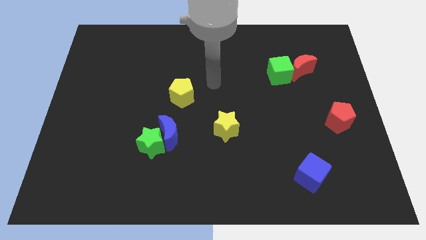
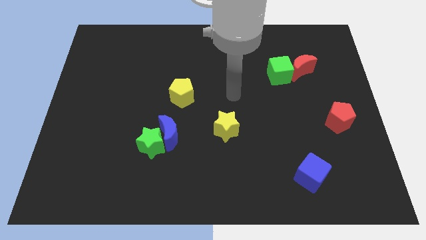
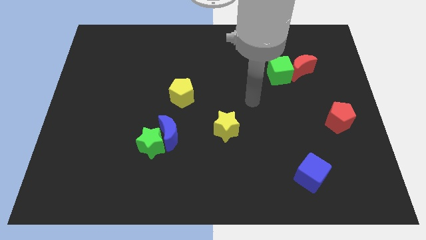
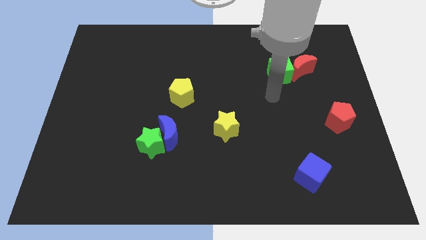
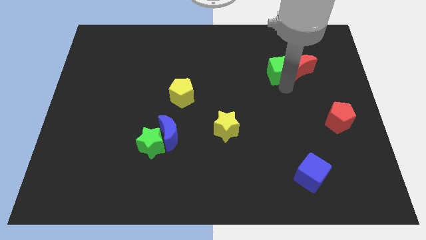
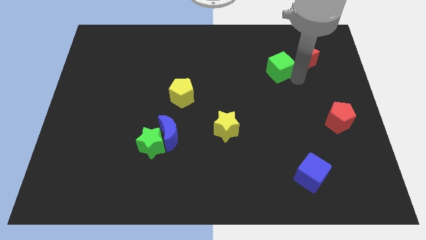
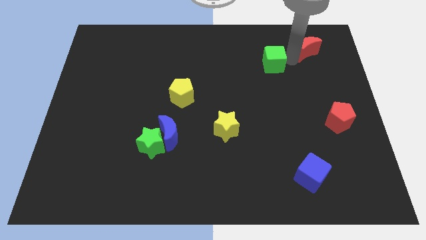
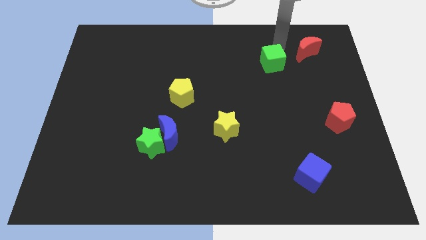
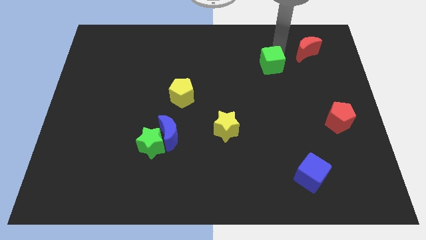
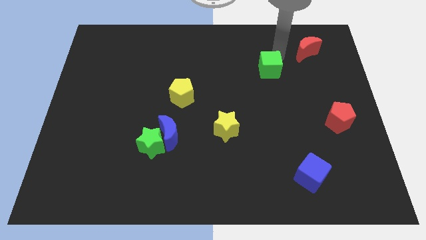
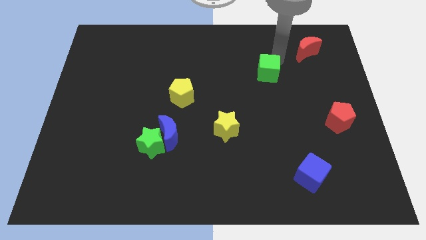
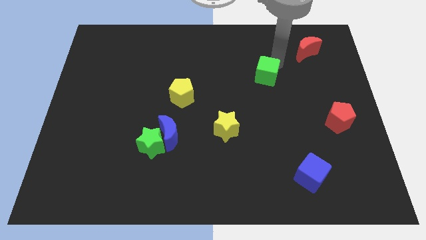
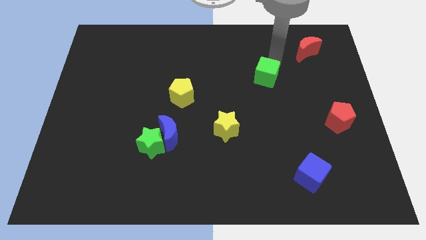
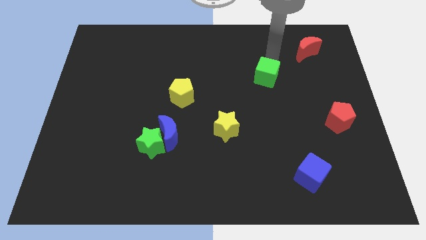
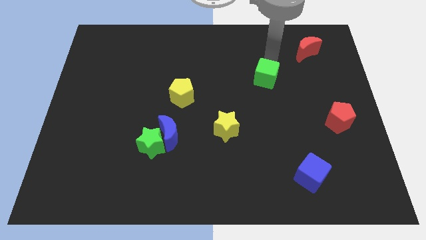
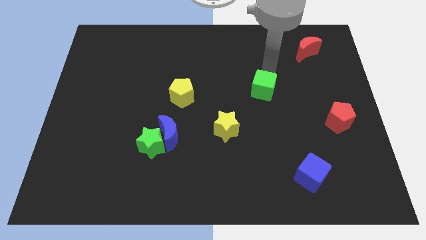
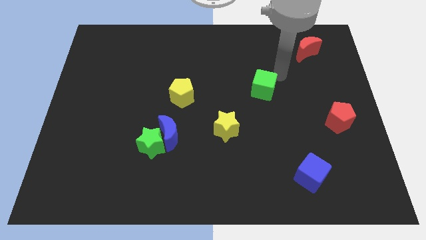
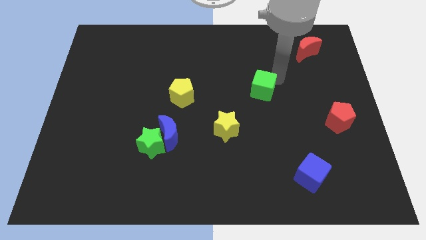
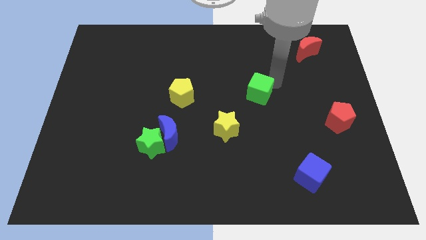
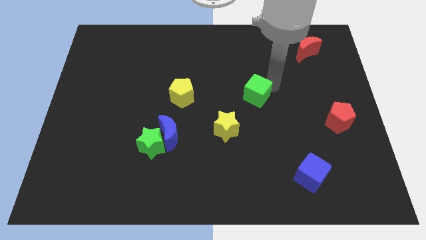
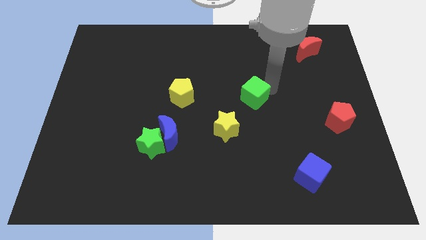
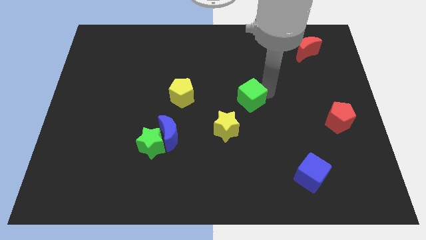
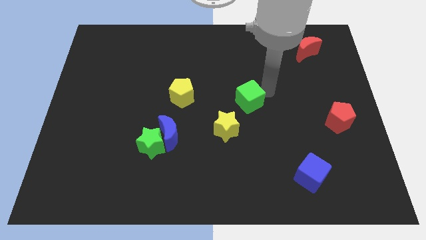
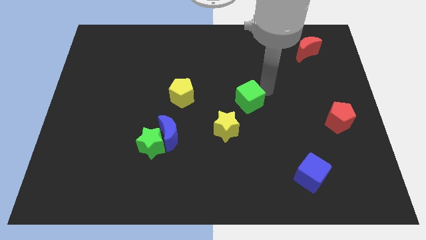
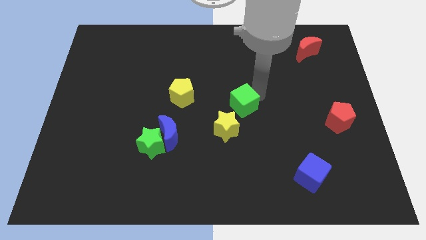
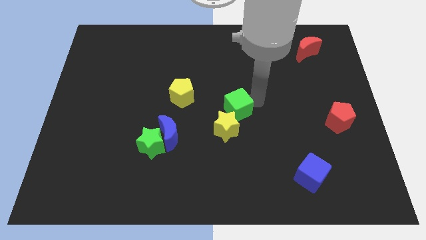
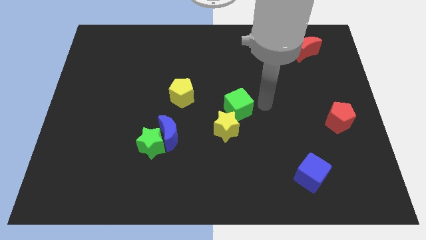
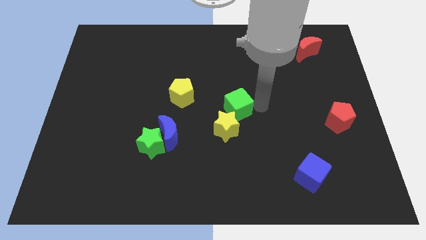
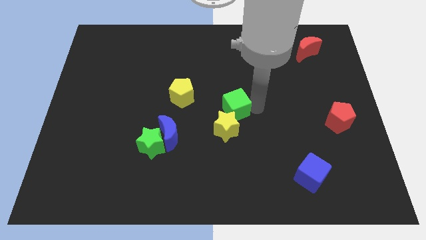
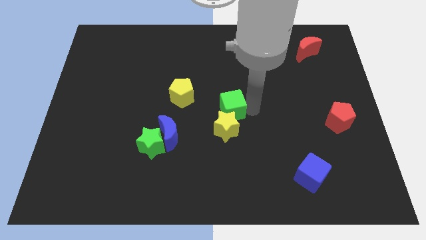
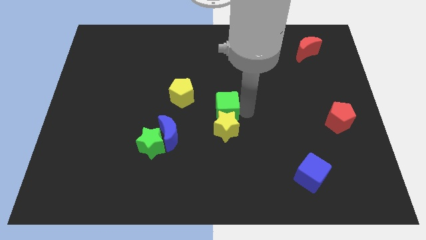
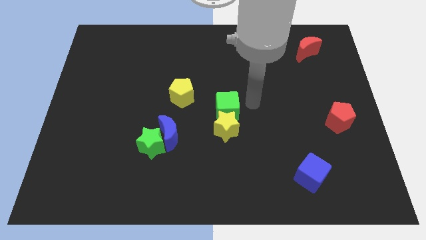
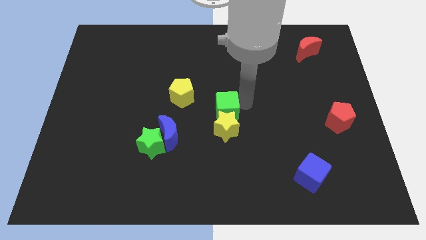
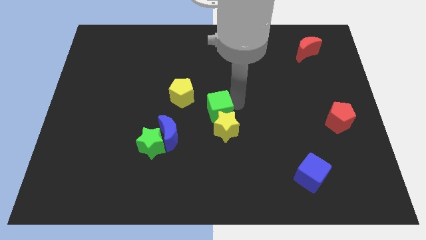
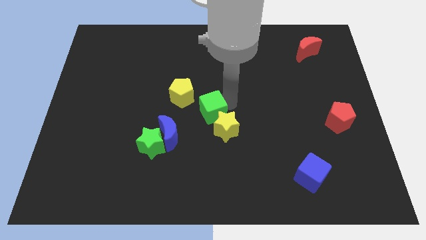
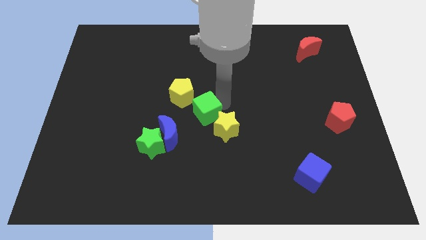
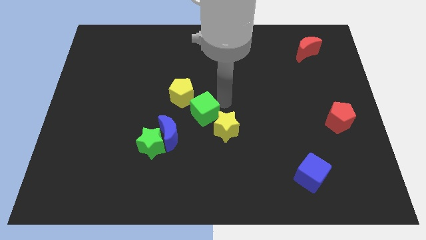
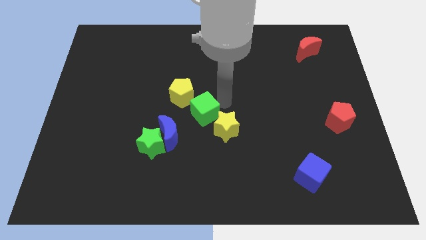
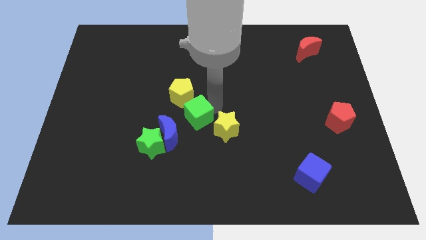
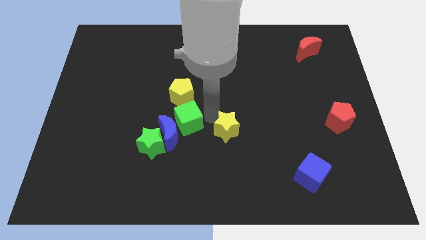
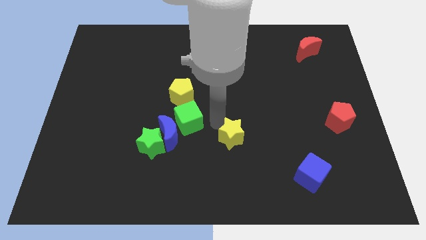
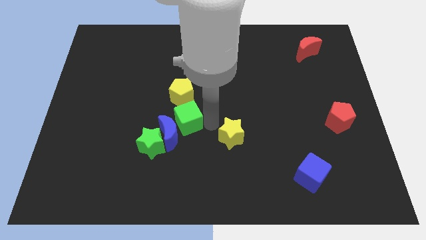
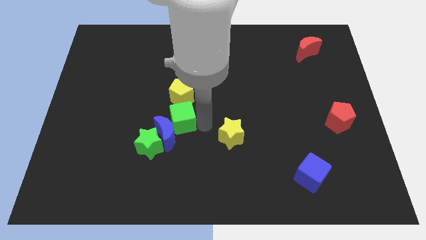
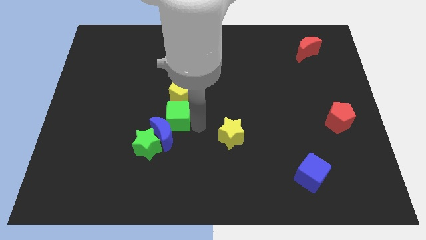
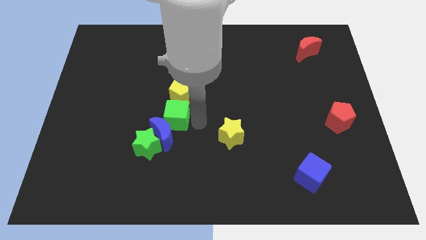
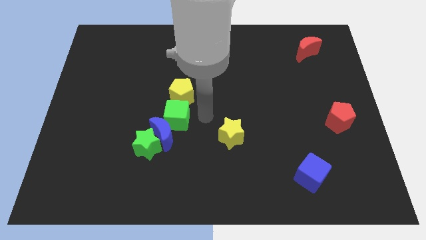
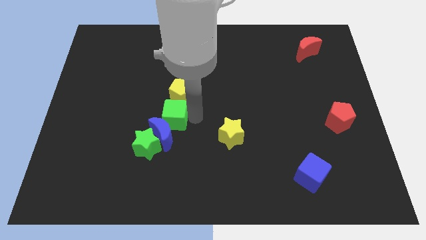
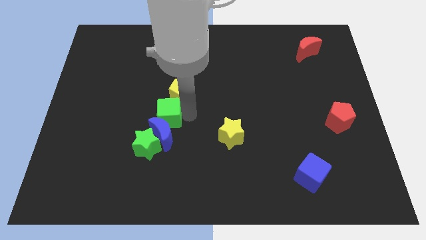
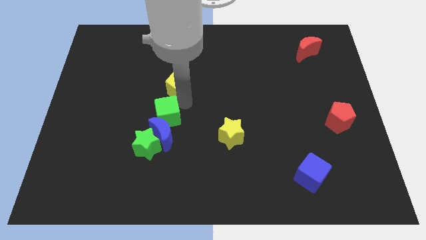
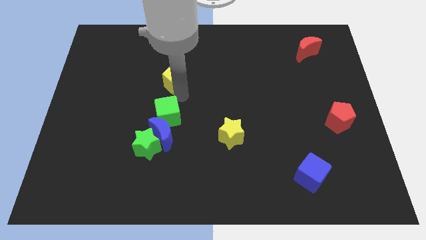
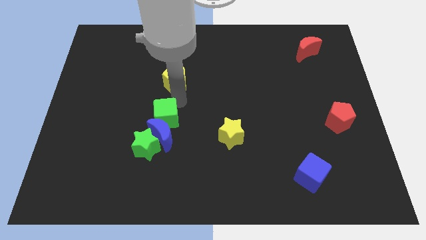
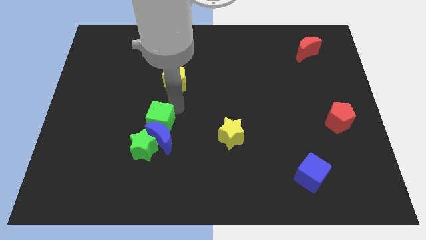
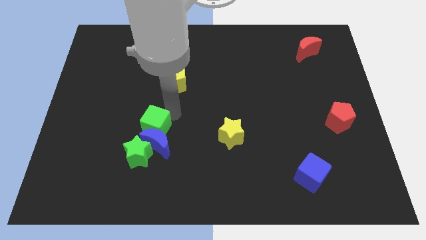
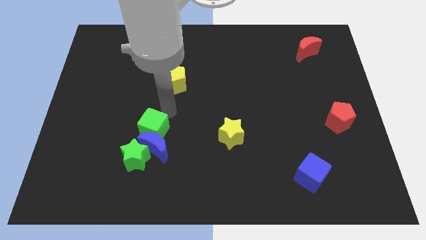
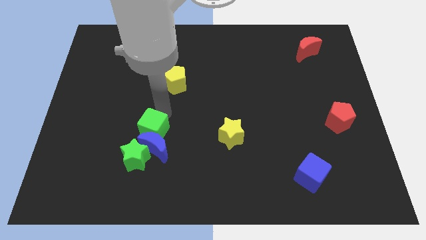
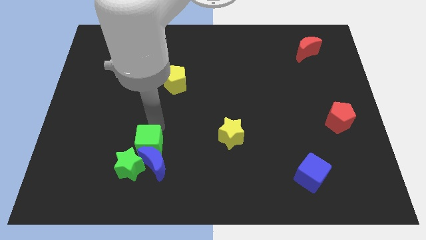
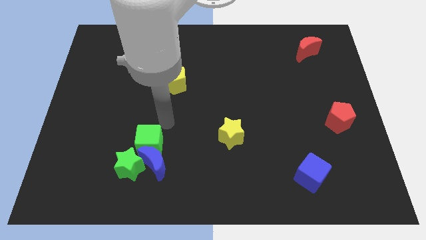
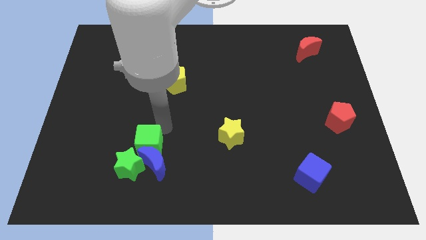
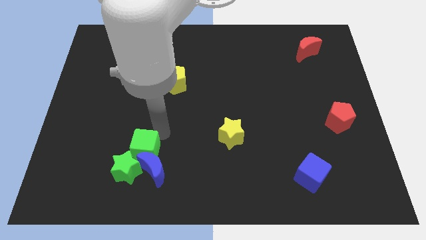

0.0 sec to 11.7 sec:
move the green cube to the green star

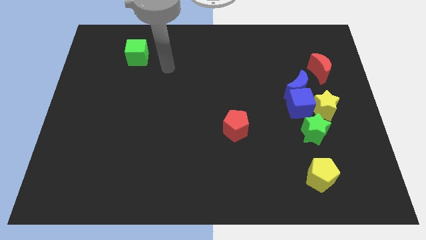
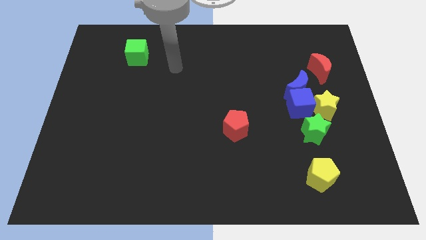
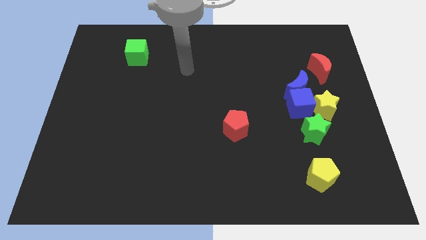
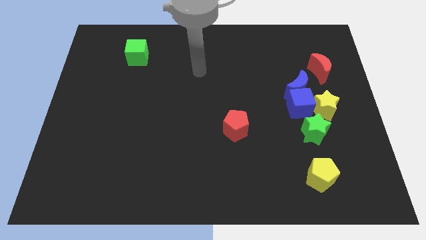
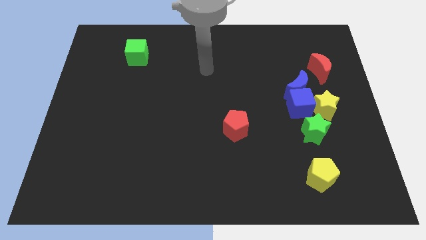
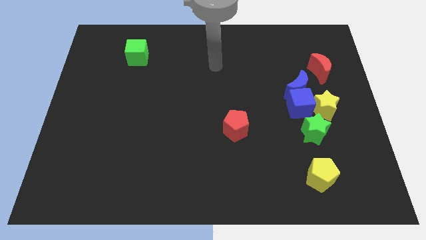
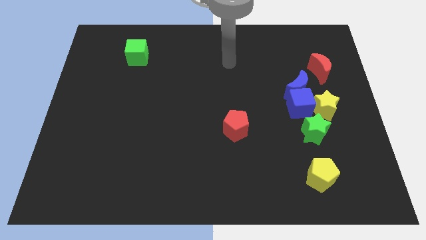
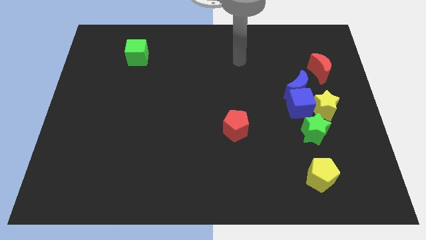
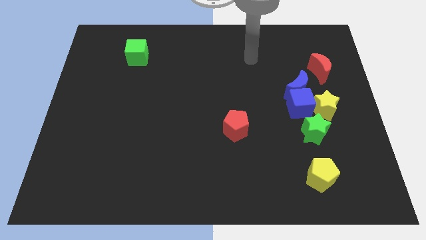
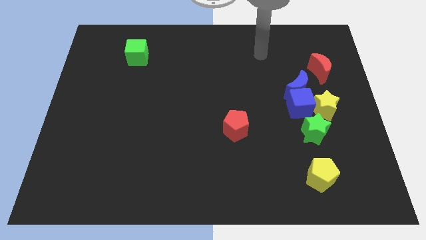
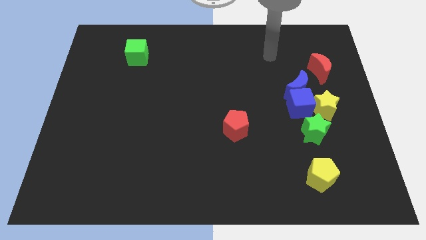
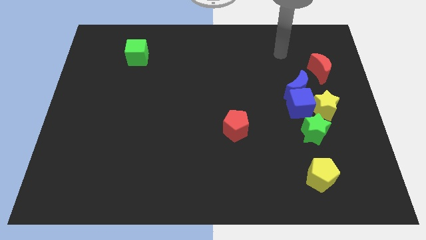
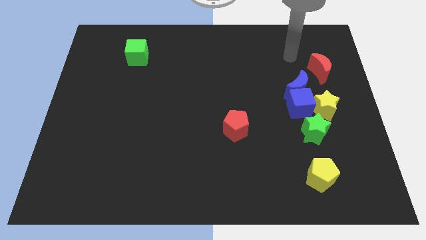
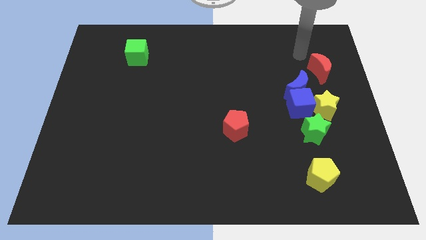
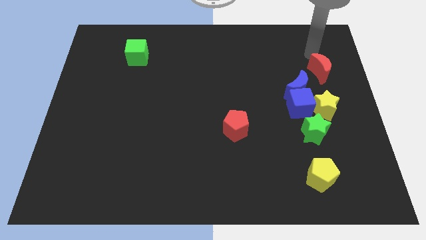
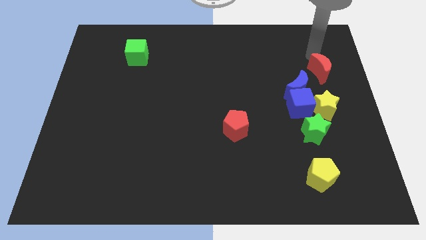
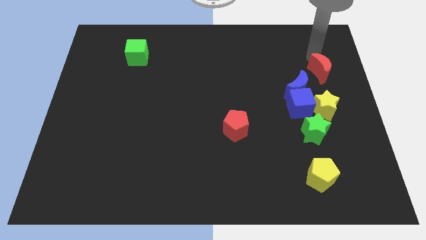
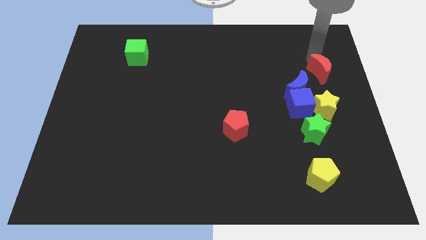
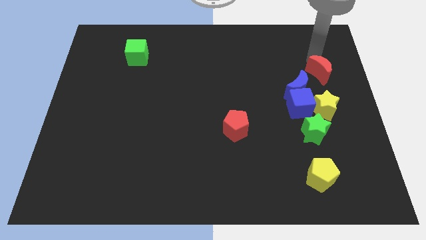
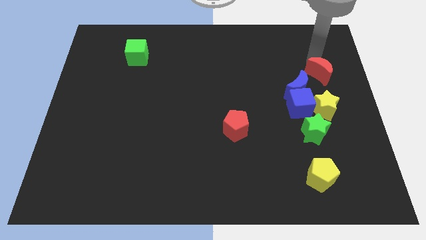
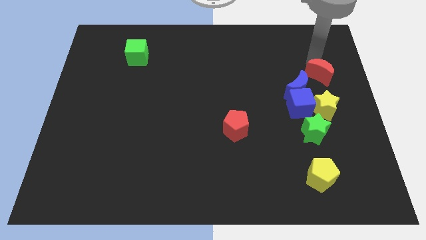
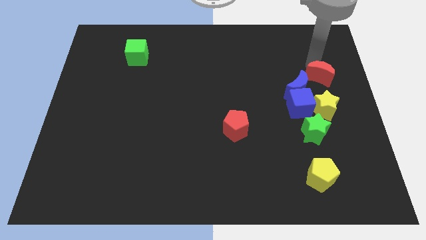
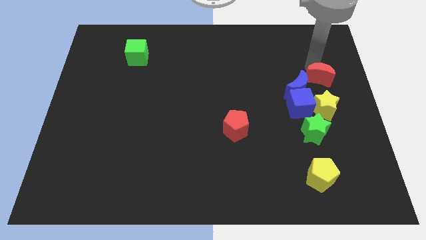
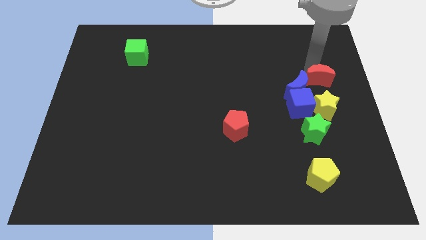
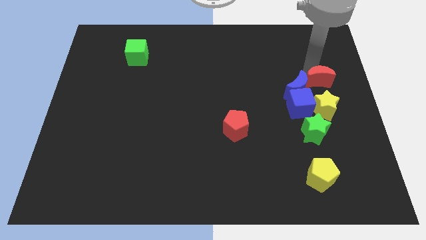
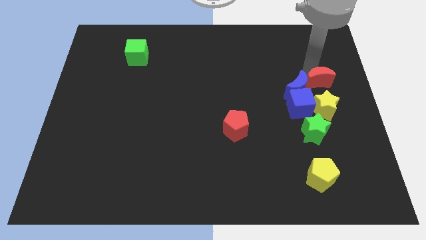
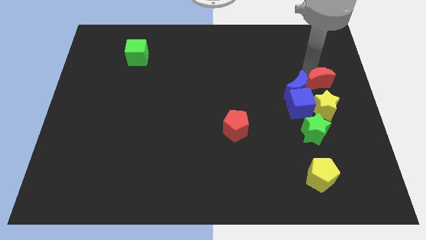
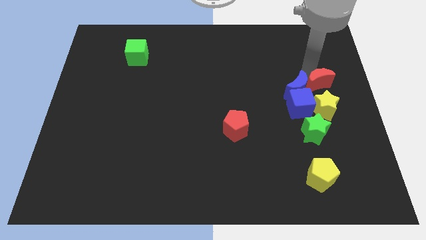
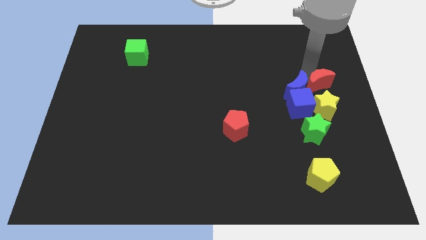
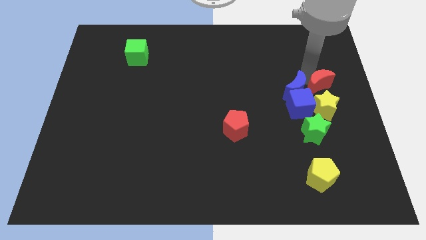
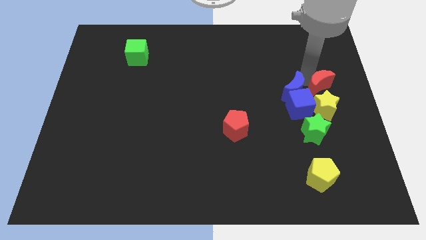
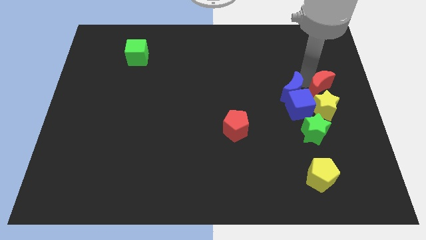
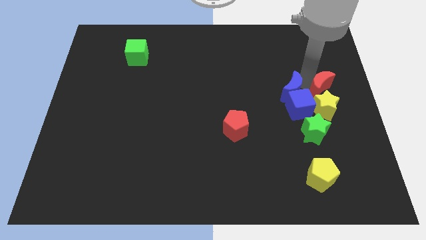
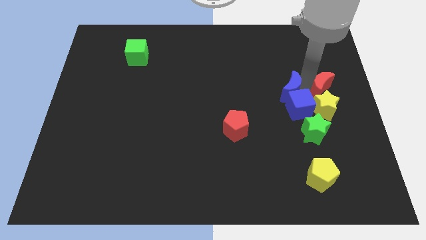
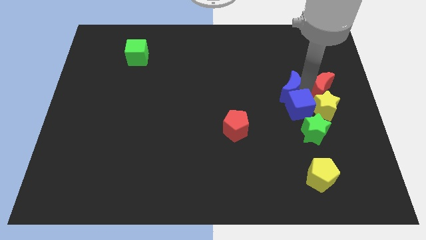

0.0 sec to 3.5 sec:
push the red moon next to the yellow star
